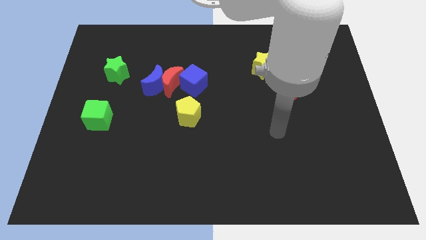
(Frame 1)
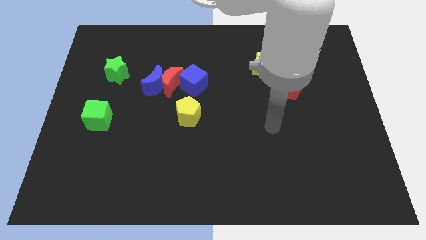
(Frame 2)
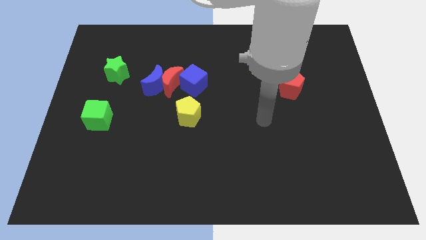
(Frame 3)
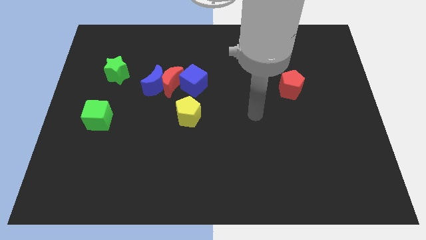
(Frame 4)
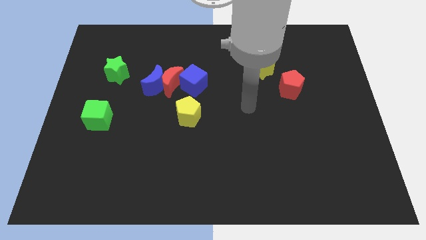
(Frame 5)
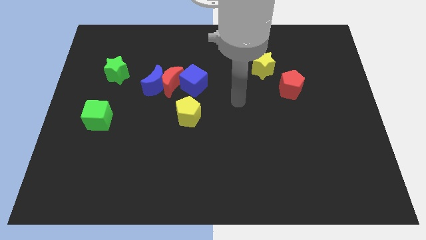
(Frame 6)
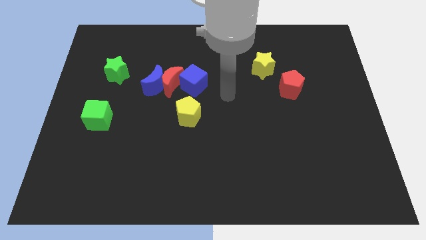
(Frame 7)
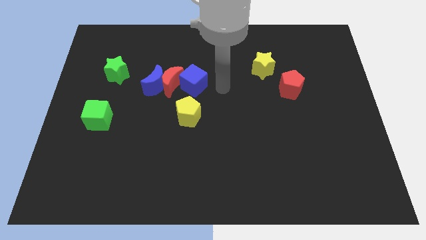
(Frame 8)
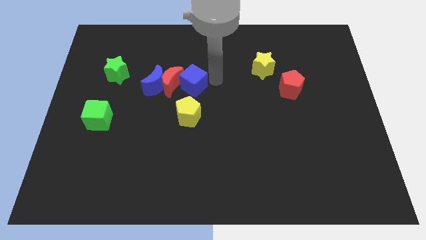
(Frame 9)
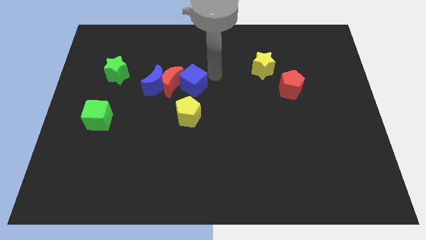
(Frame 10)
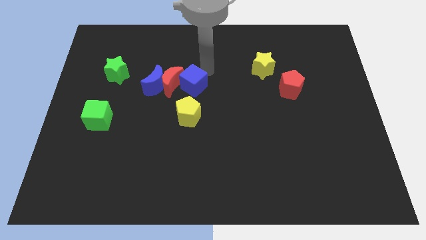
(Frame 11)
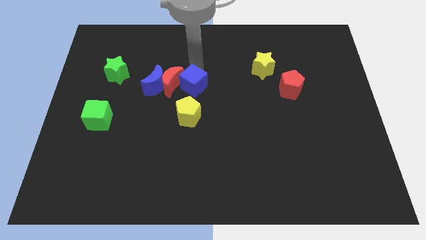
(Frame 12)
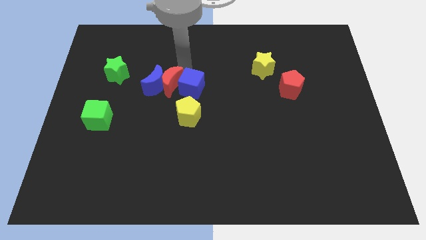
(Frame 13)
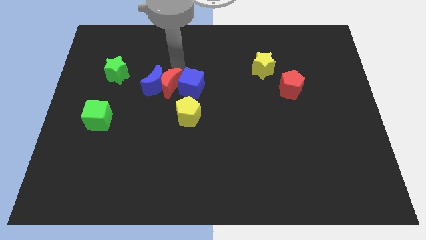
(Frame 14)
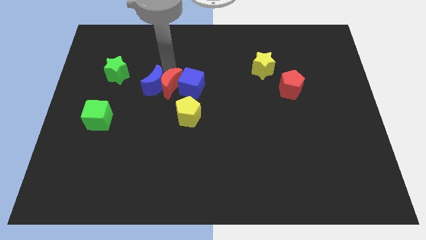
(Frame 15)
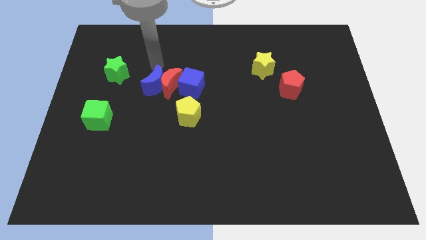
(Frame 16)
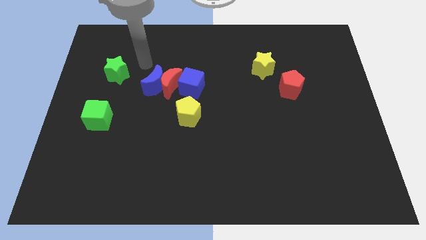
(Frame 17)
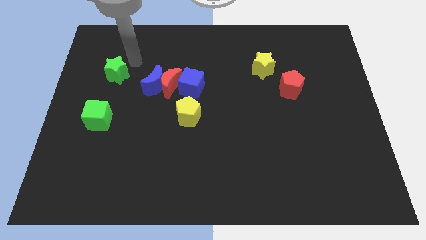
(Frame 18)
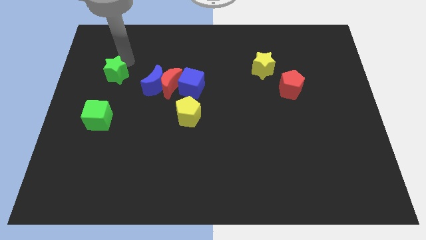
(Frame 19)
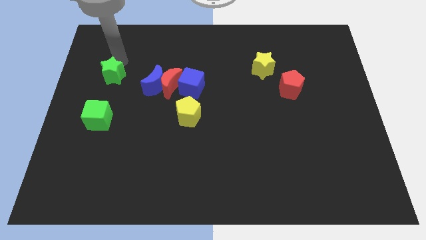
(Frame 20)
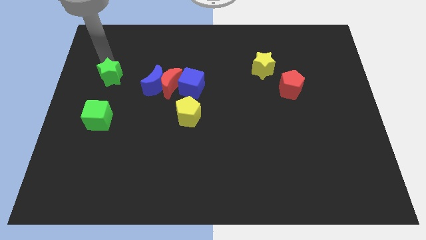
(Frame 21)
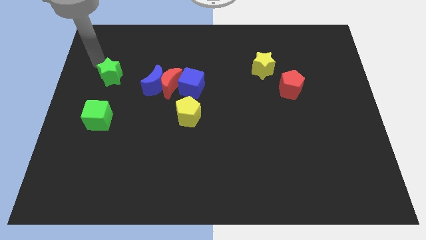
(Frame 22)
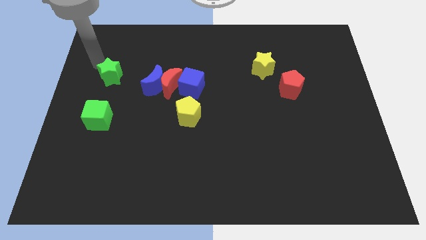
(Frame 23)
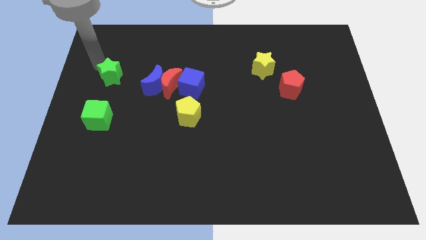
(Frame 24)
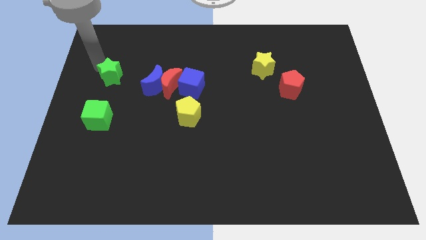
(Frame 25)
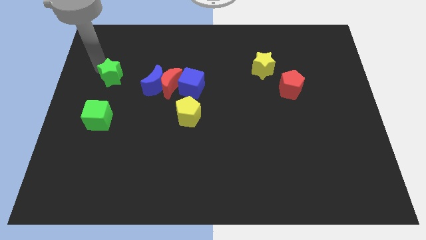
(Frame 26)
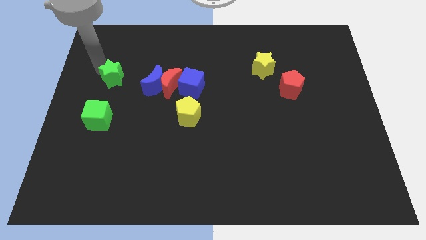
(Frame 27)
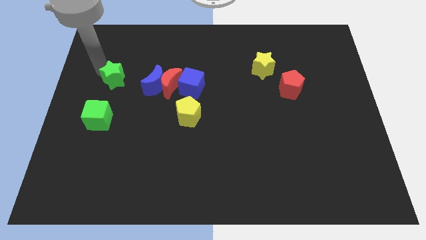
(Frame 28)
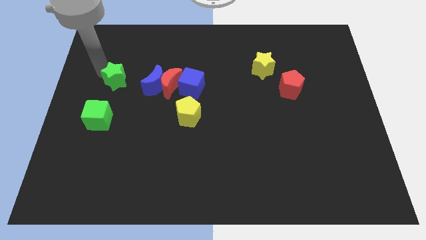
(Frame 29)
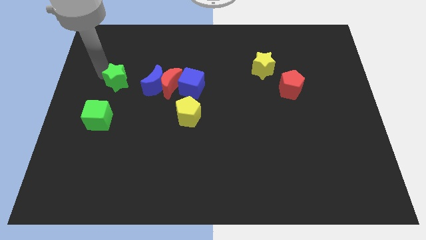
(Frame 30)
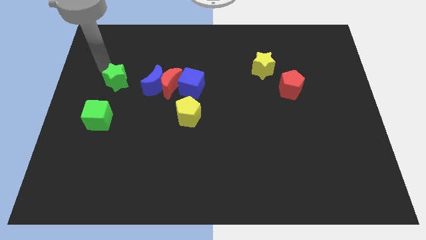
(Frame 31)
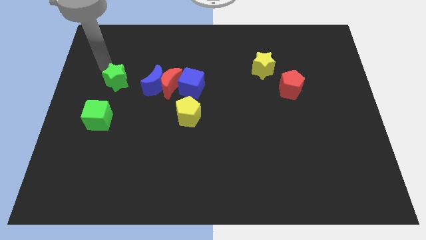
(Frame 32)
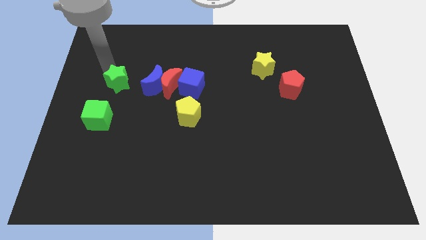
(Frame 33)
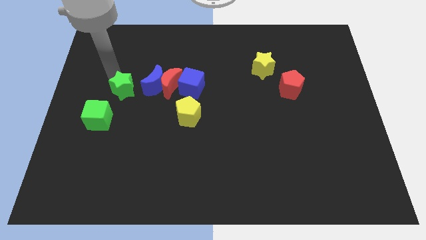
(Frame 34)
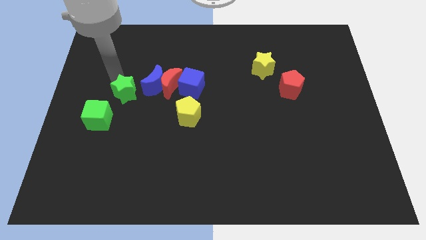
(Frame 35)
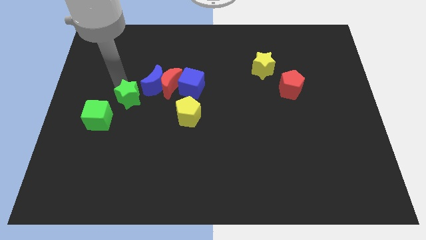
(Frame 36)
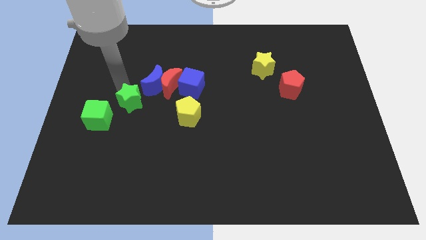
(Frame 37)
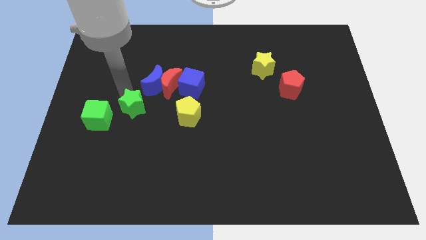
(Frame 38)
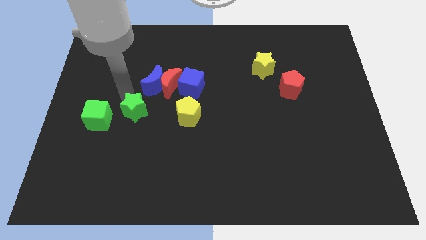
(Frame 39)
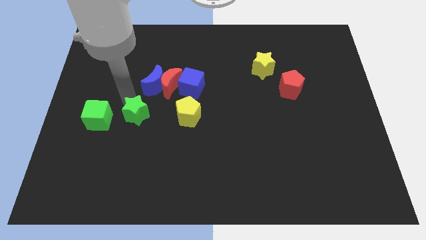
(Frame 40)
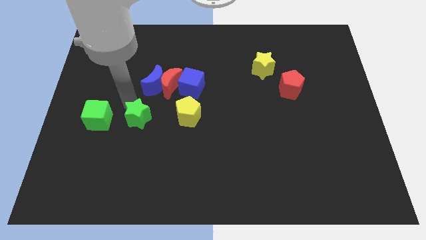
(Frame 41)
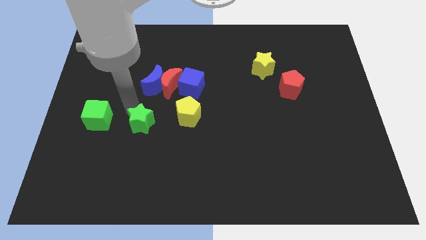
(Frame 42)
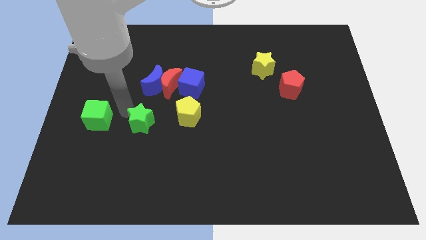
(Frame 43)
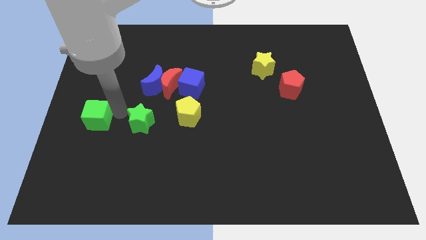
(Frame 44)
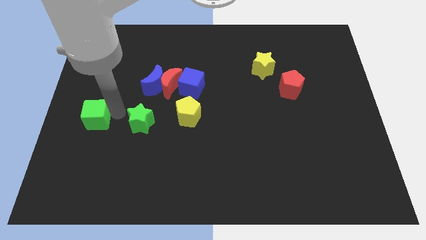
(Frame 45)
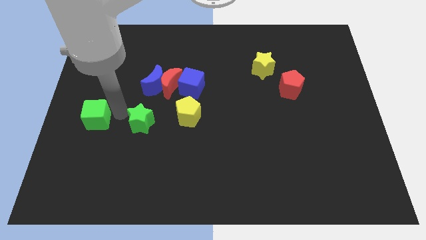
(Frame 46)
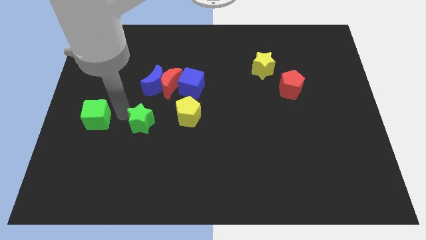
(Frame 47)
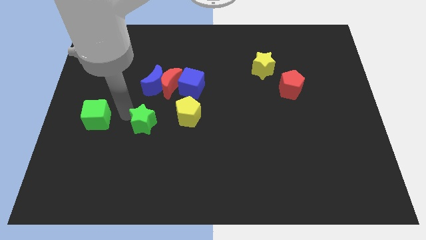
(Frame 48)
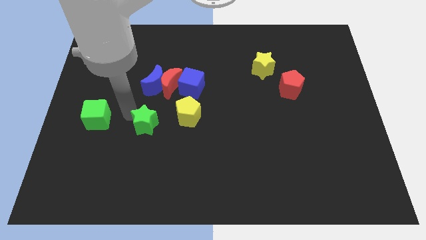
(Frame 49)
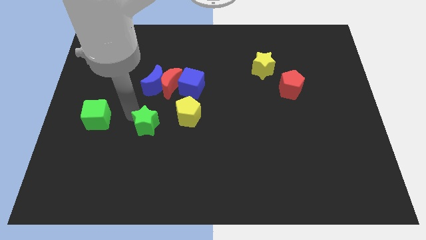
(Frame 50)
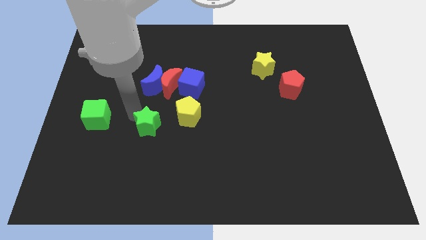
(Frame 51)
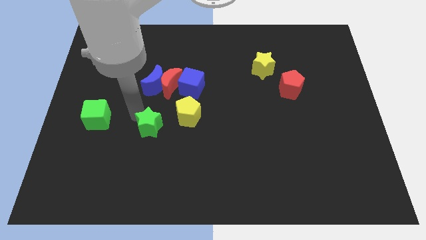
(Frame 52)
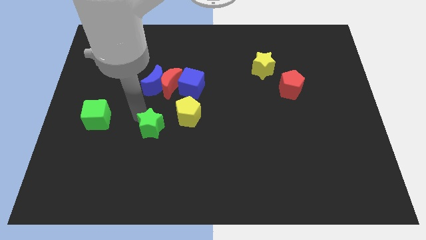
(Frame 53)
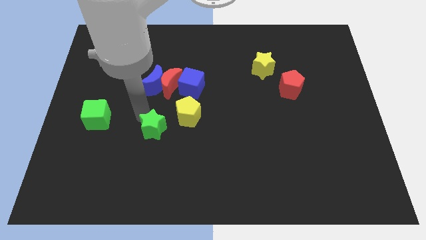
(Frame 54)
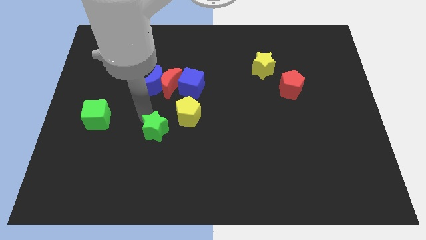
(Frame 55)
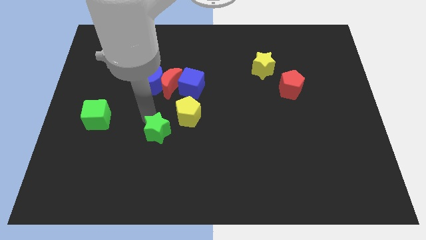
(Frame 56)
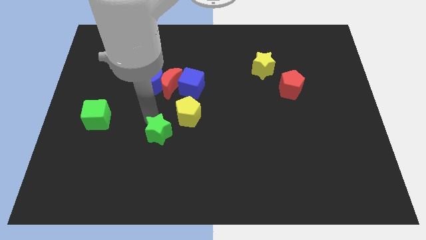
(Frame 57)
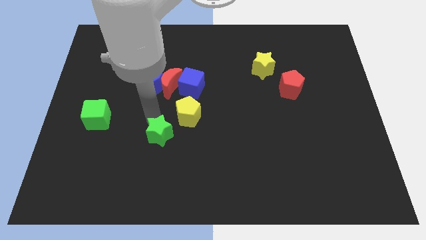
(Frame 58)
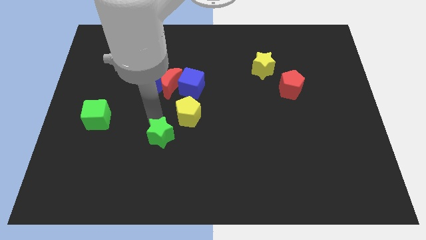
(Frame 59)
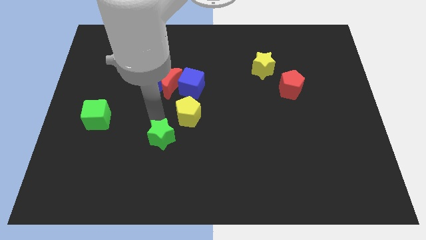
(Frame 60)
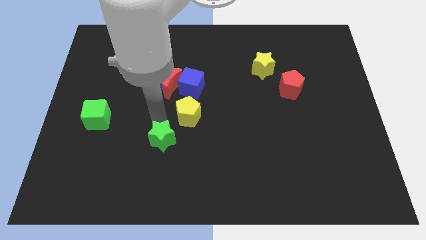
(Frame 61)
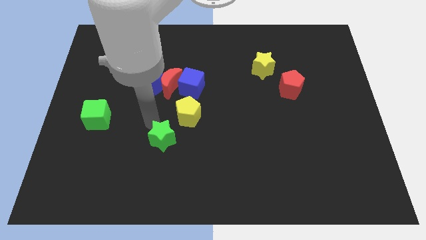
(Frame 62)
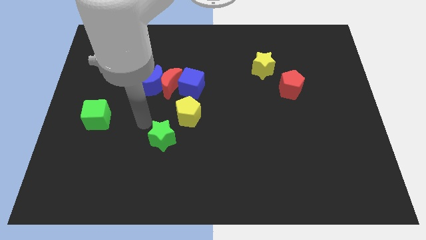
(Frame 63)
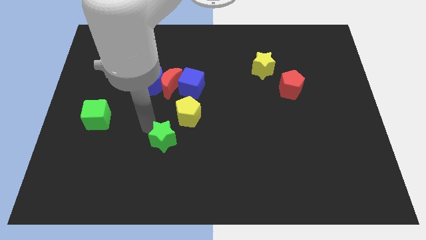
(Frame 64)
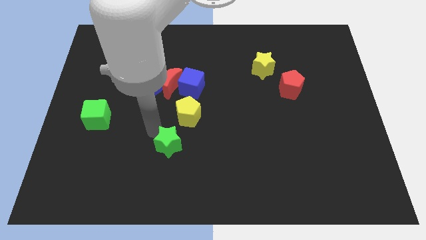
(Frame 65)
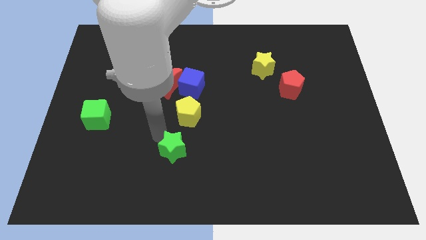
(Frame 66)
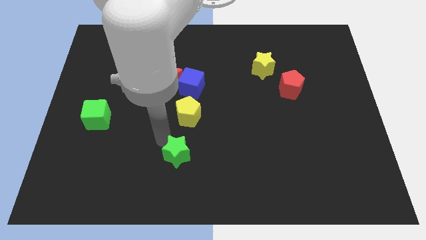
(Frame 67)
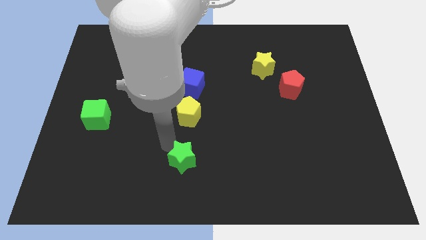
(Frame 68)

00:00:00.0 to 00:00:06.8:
move the green star to the bottom side

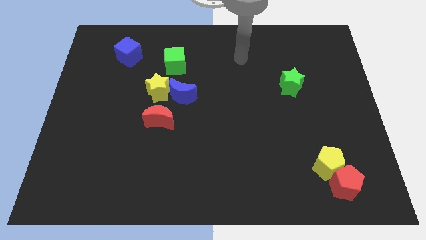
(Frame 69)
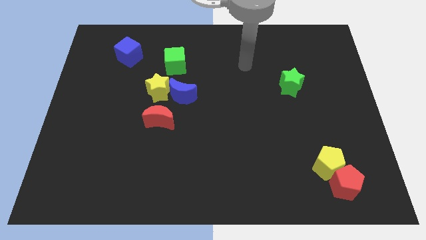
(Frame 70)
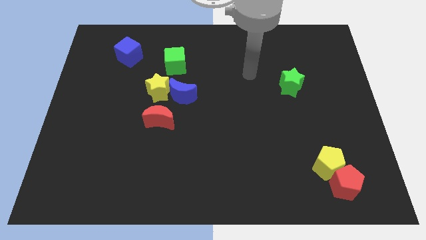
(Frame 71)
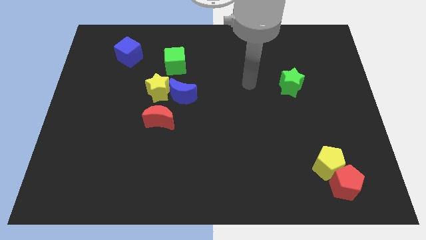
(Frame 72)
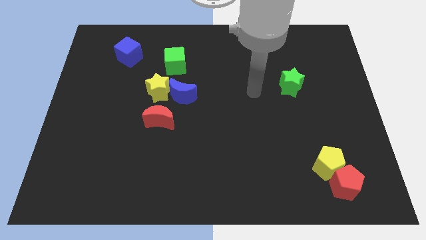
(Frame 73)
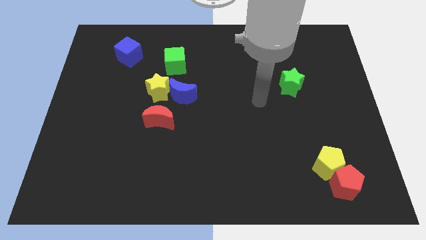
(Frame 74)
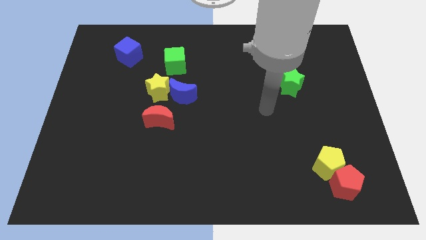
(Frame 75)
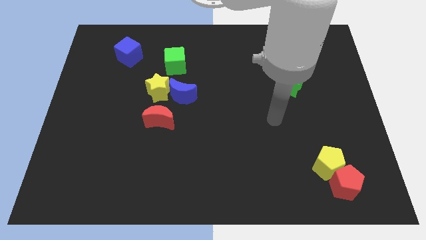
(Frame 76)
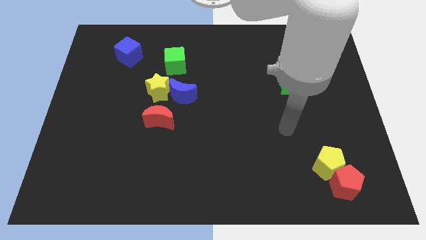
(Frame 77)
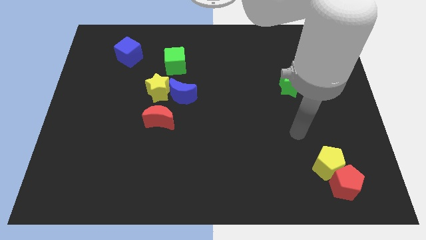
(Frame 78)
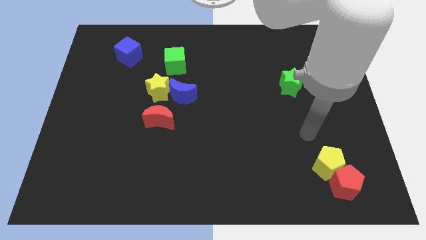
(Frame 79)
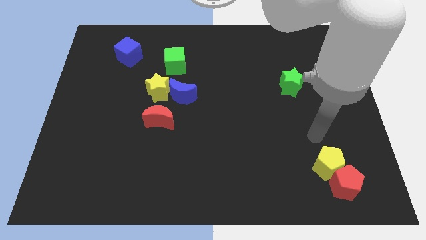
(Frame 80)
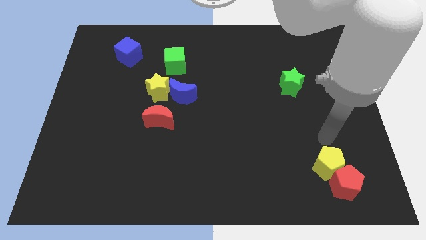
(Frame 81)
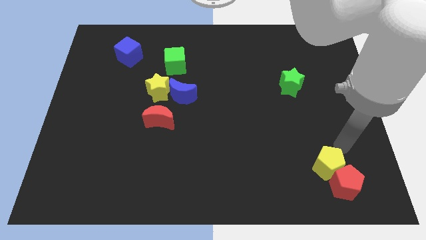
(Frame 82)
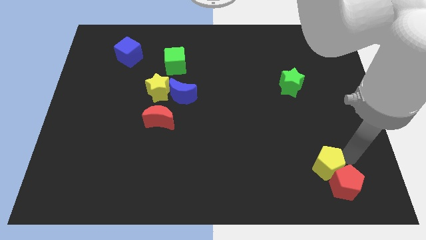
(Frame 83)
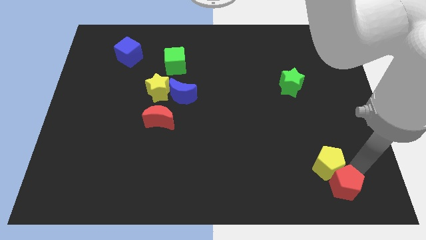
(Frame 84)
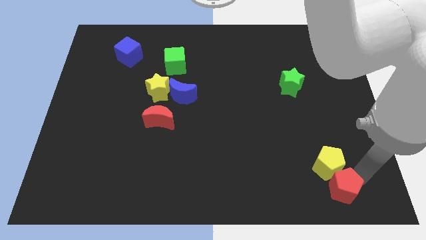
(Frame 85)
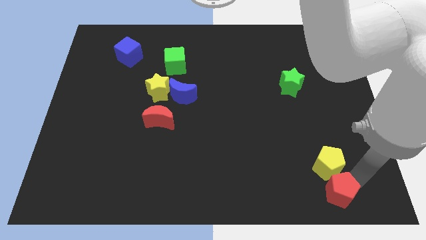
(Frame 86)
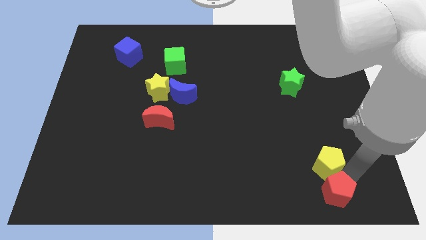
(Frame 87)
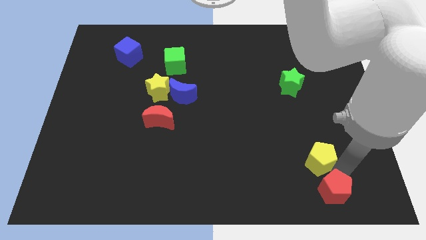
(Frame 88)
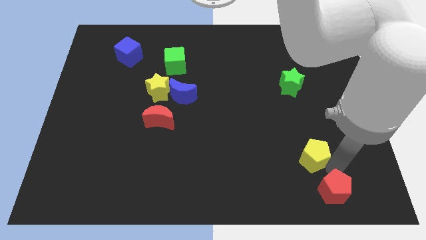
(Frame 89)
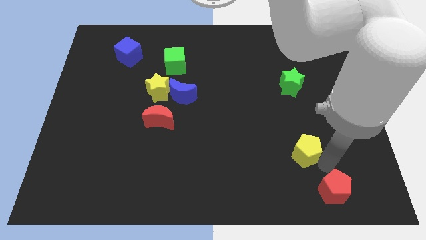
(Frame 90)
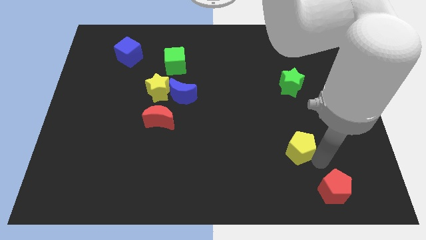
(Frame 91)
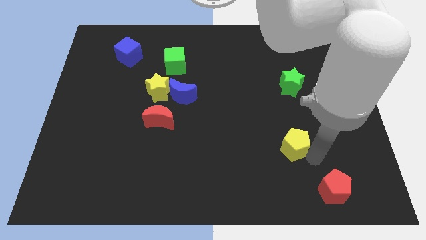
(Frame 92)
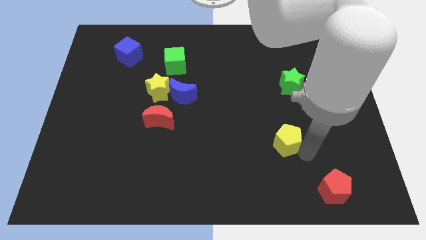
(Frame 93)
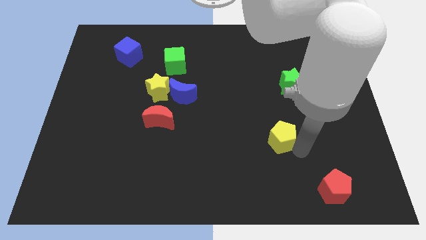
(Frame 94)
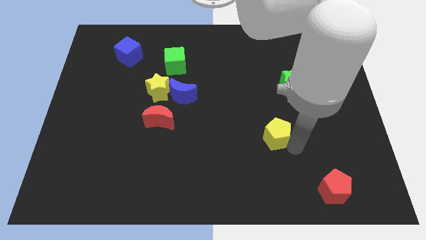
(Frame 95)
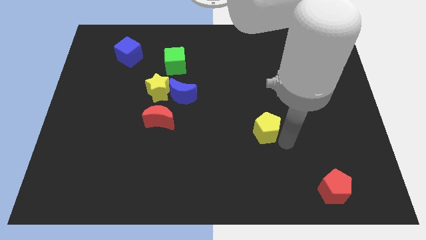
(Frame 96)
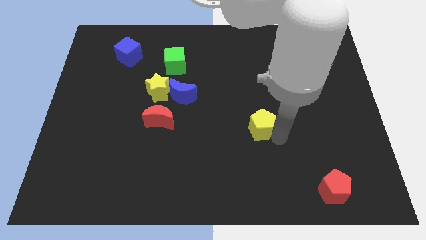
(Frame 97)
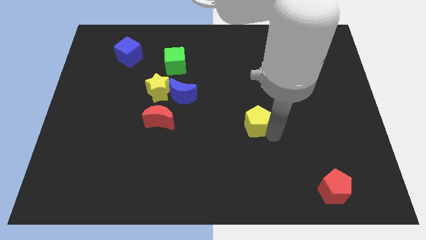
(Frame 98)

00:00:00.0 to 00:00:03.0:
slide the yellow pentagon to the middle
